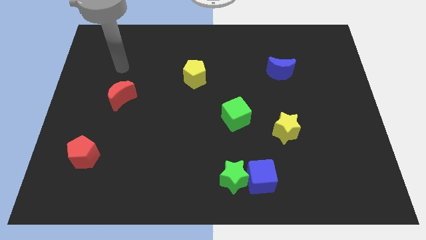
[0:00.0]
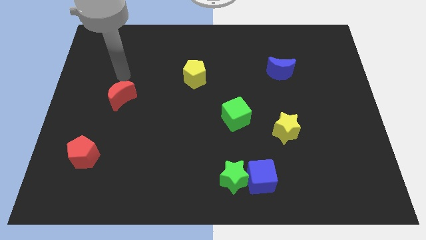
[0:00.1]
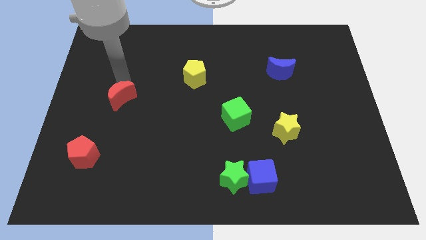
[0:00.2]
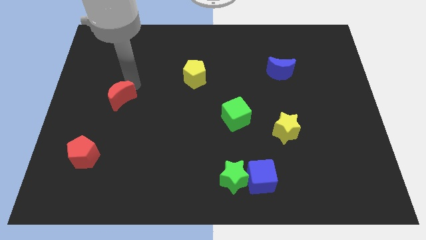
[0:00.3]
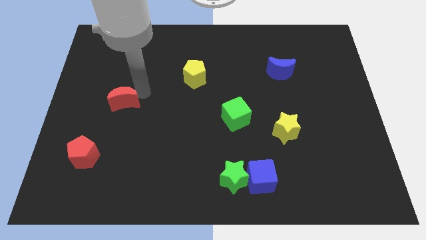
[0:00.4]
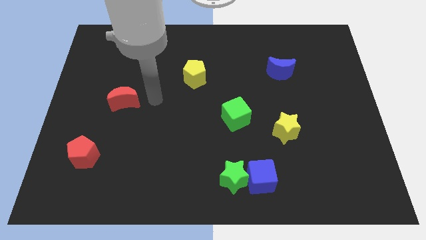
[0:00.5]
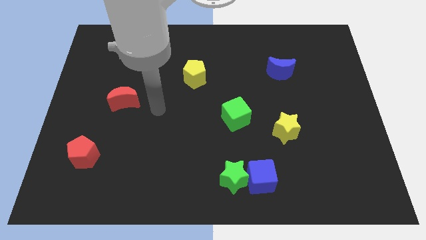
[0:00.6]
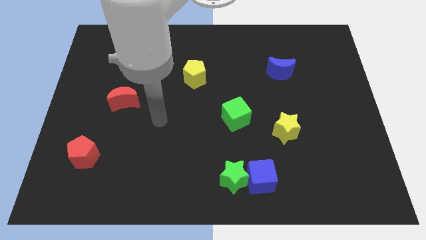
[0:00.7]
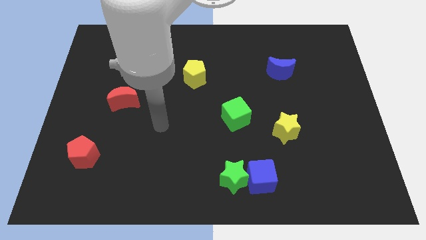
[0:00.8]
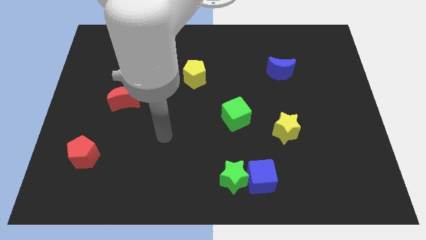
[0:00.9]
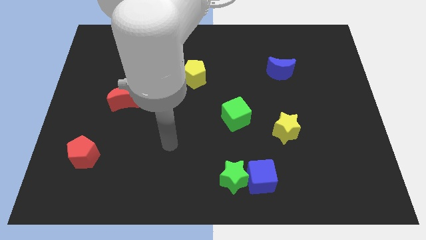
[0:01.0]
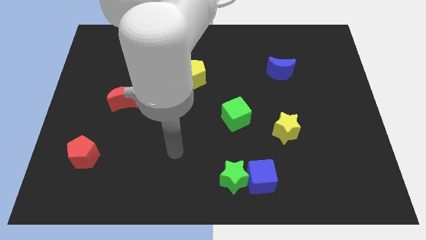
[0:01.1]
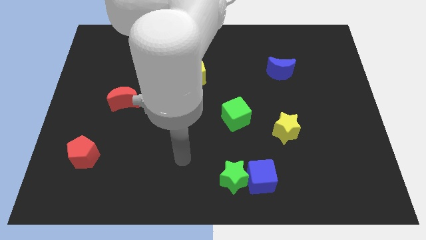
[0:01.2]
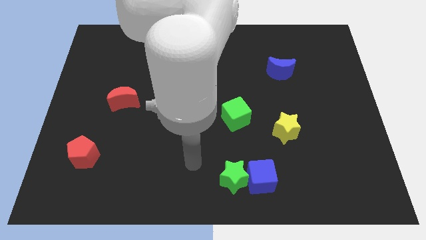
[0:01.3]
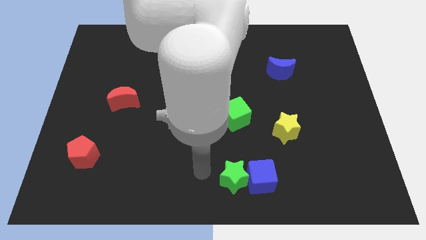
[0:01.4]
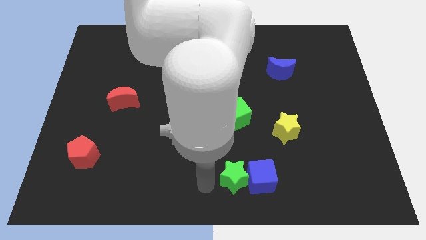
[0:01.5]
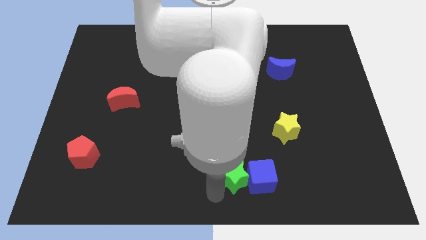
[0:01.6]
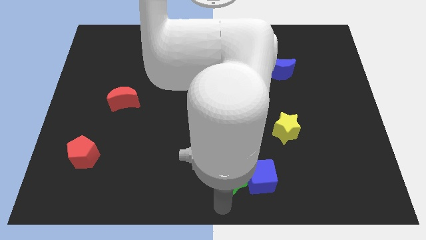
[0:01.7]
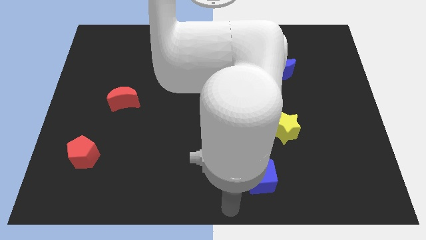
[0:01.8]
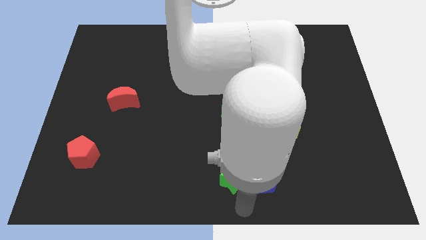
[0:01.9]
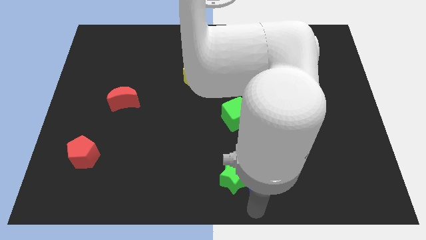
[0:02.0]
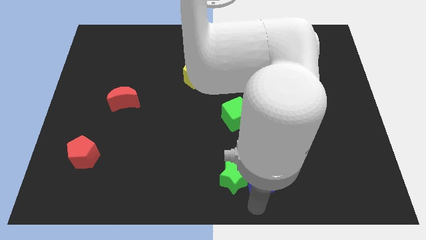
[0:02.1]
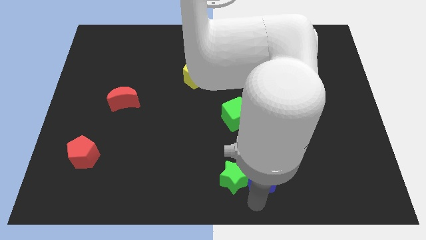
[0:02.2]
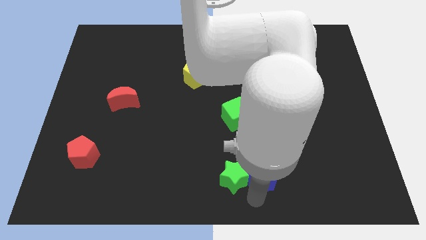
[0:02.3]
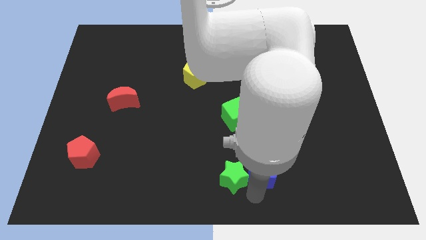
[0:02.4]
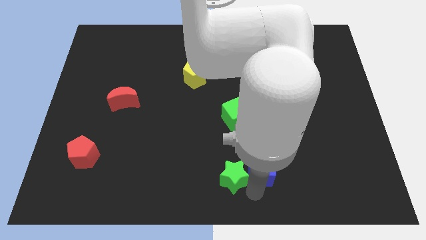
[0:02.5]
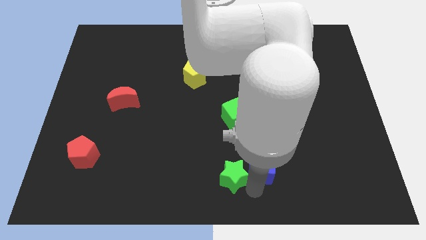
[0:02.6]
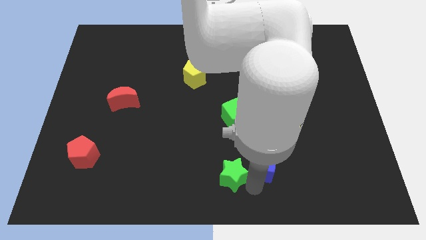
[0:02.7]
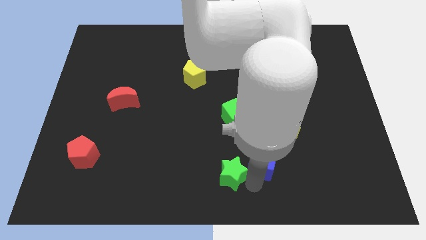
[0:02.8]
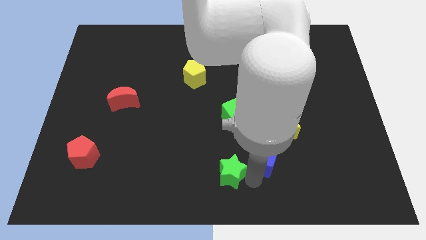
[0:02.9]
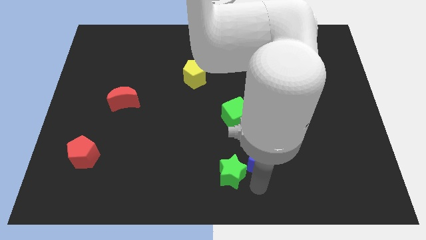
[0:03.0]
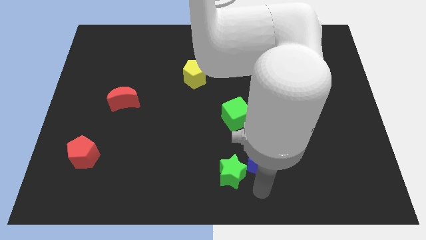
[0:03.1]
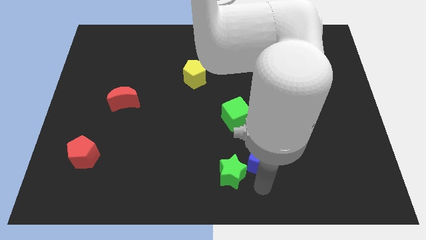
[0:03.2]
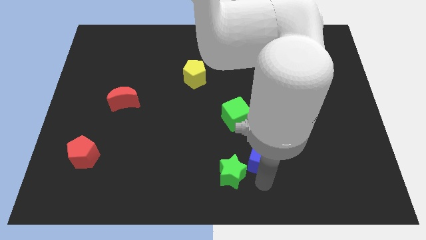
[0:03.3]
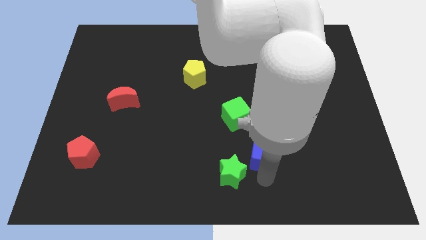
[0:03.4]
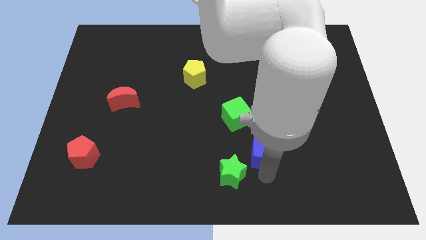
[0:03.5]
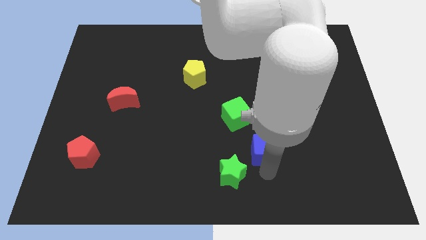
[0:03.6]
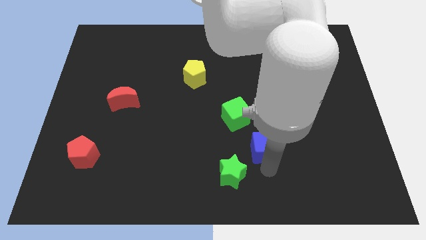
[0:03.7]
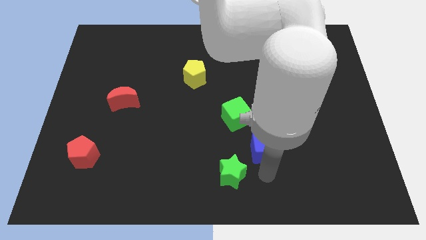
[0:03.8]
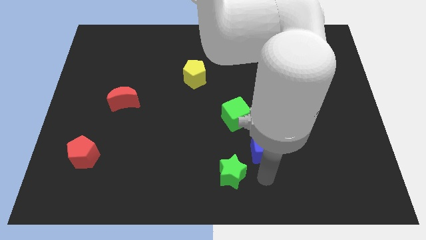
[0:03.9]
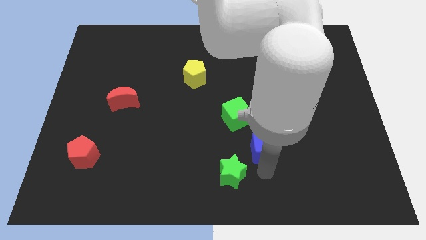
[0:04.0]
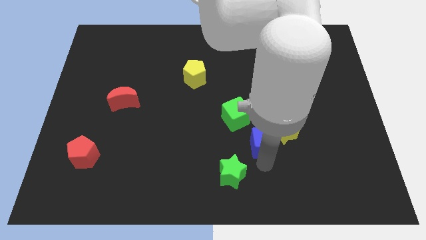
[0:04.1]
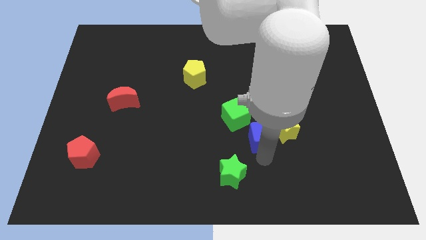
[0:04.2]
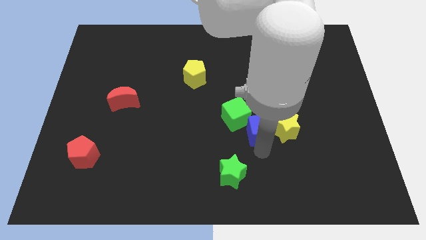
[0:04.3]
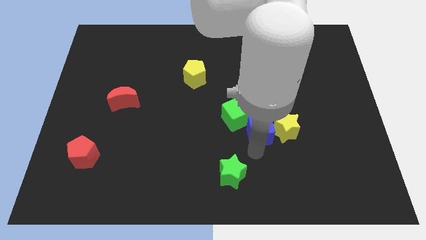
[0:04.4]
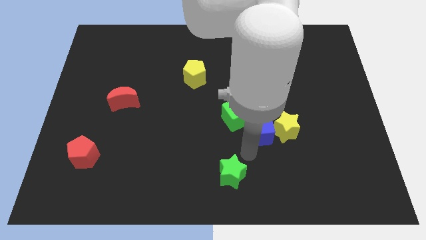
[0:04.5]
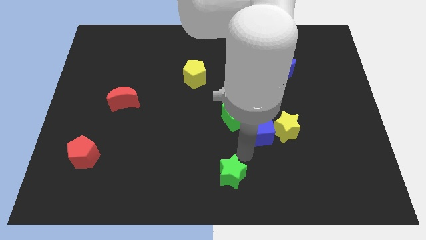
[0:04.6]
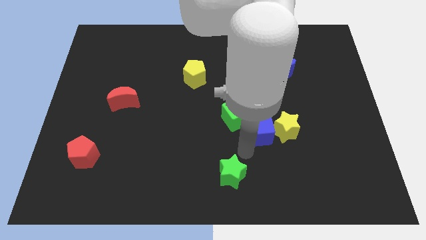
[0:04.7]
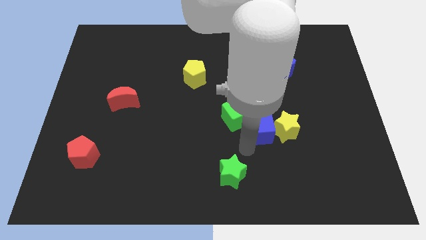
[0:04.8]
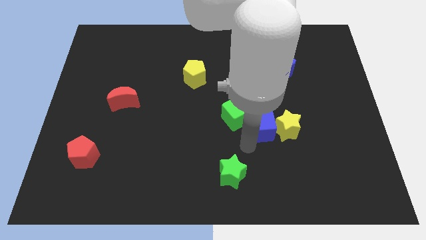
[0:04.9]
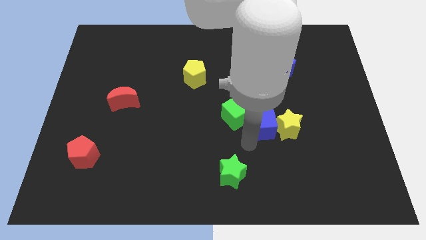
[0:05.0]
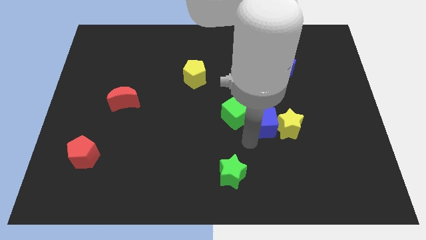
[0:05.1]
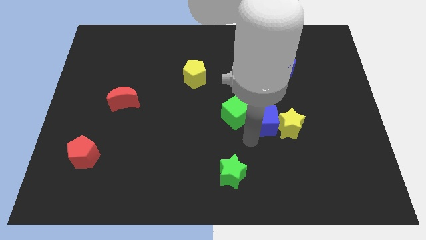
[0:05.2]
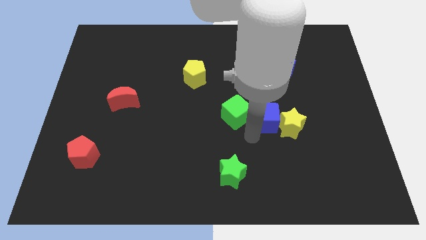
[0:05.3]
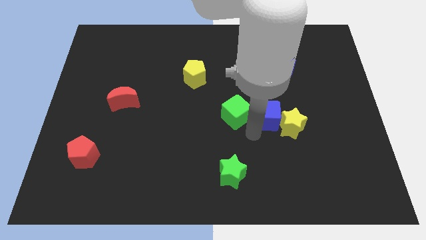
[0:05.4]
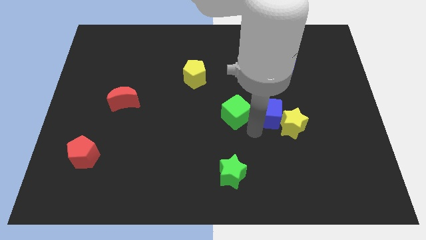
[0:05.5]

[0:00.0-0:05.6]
slide the blue cube below the blue moon

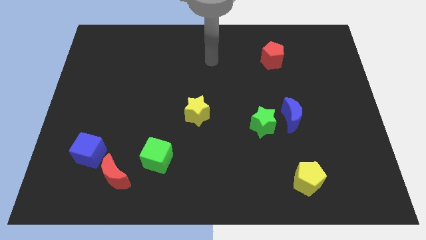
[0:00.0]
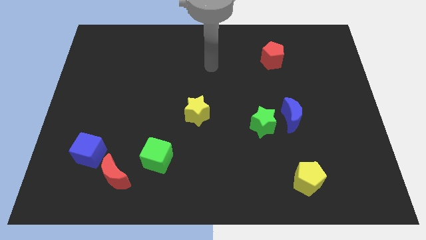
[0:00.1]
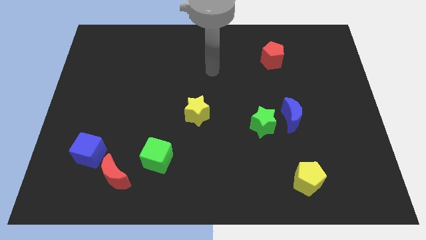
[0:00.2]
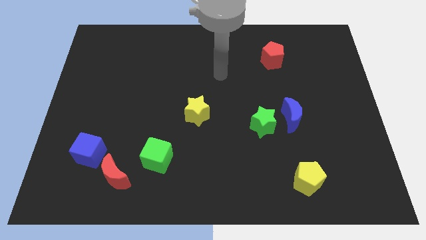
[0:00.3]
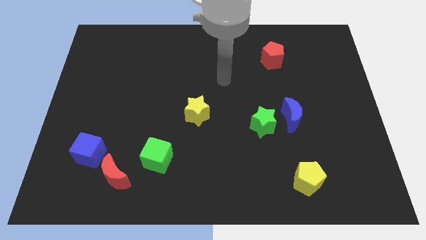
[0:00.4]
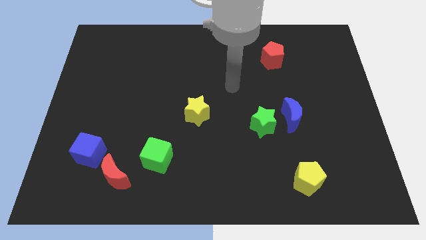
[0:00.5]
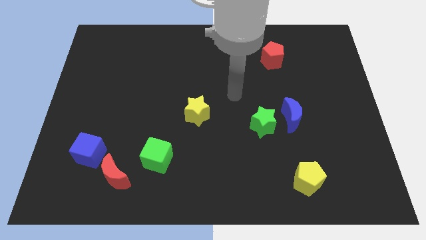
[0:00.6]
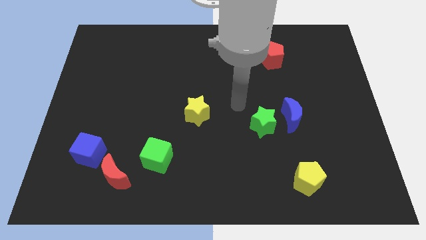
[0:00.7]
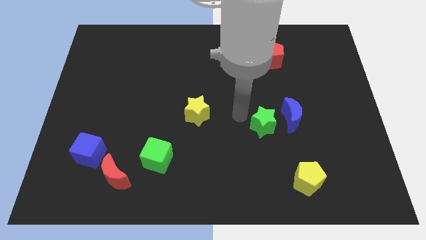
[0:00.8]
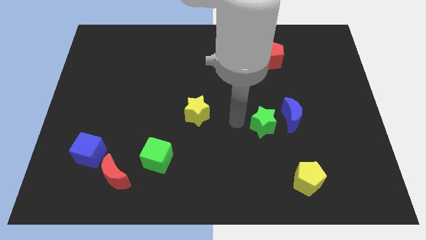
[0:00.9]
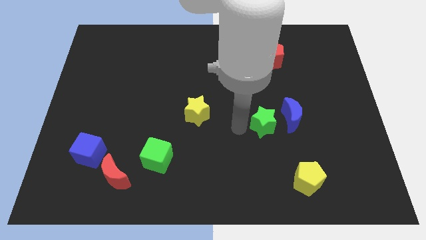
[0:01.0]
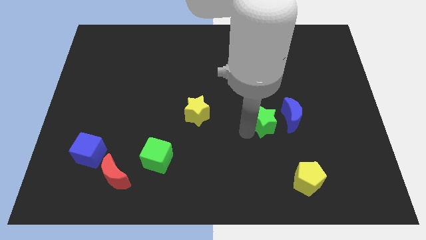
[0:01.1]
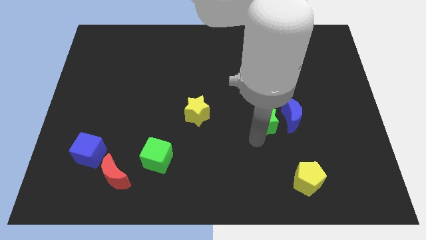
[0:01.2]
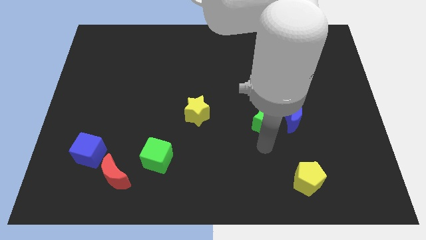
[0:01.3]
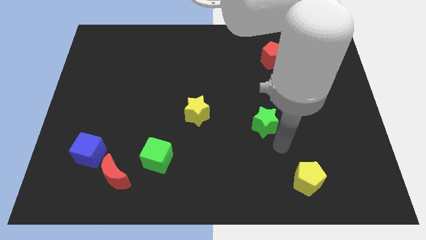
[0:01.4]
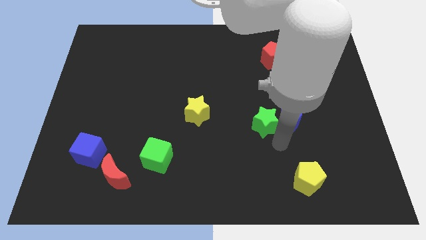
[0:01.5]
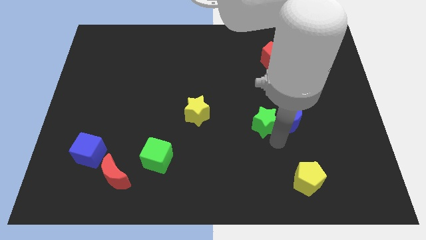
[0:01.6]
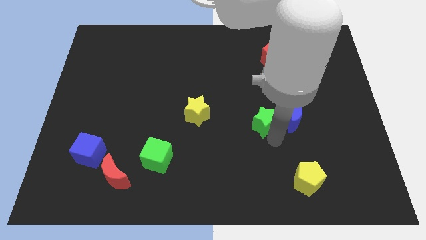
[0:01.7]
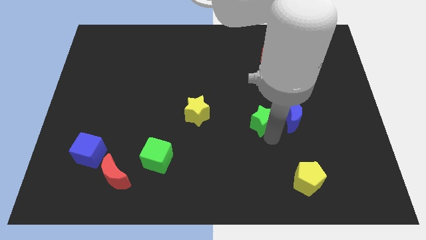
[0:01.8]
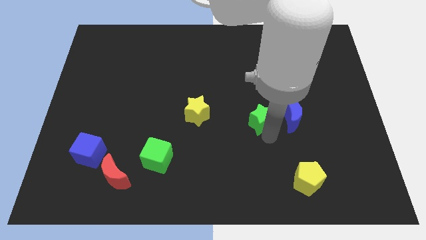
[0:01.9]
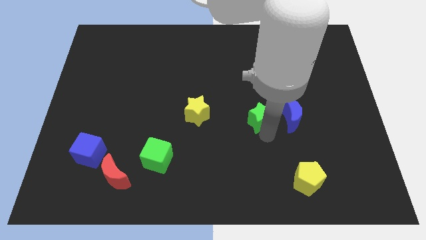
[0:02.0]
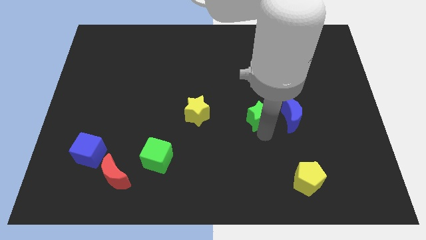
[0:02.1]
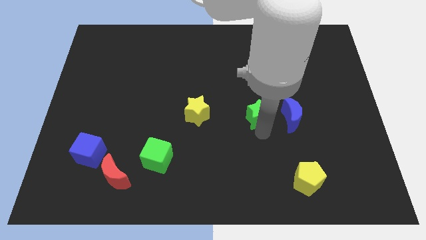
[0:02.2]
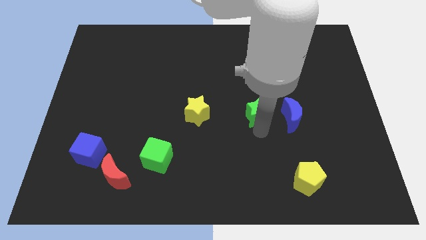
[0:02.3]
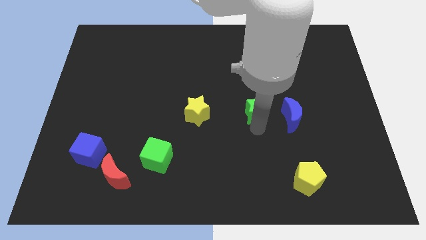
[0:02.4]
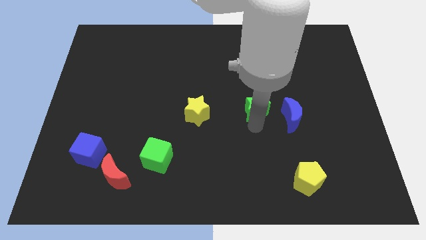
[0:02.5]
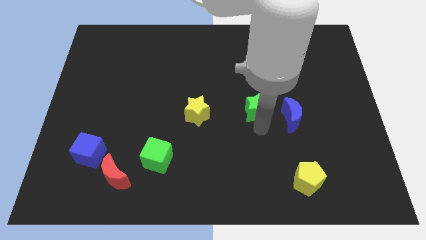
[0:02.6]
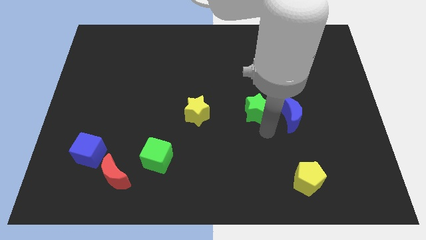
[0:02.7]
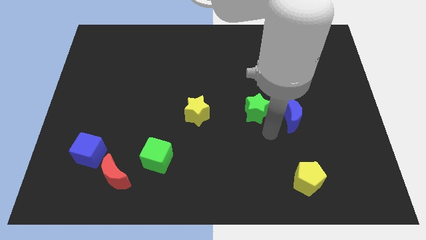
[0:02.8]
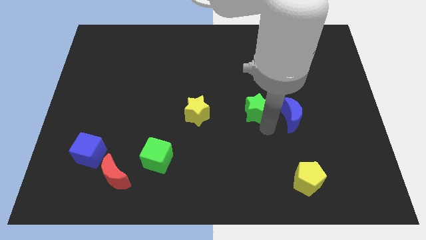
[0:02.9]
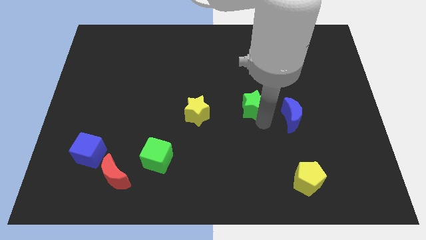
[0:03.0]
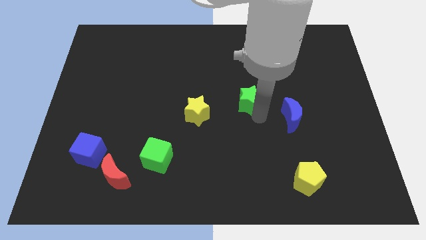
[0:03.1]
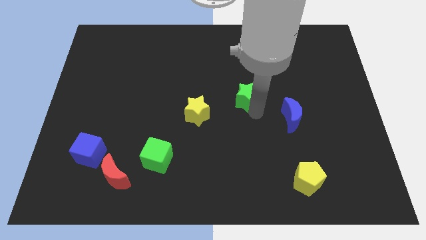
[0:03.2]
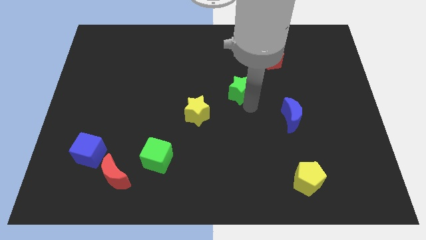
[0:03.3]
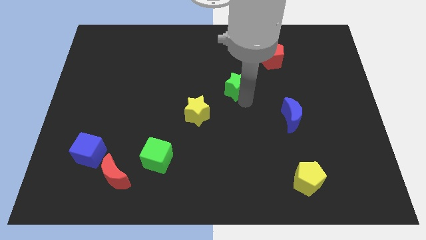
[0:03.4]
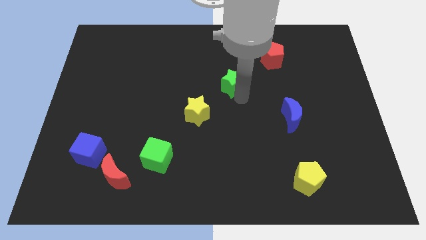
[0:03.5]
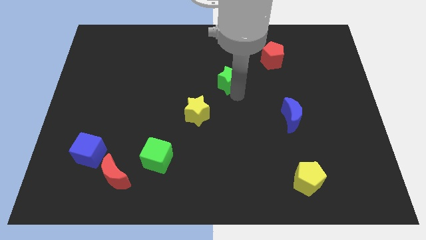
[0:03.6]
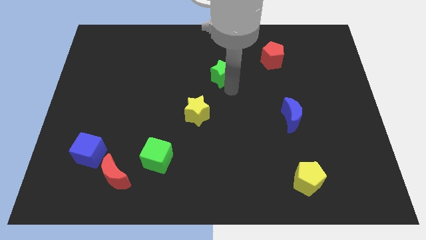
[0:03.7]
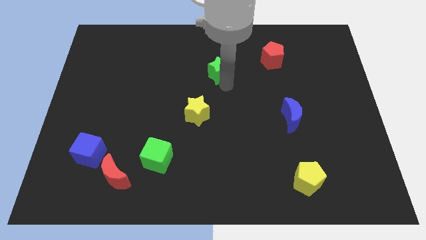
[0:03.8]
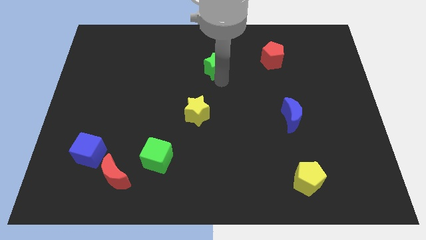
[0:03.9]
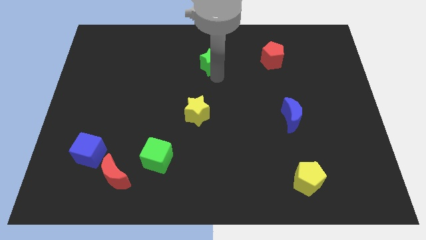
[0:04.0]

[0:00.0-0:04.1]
put the green star to the left side of the red pentagon
